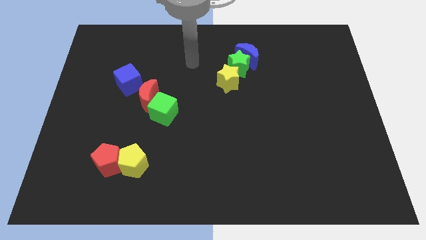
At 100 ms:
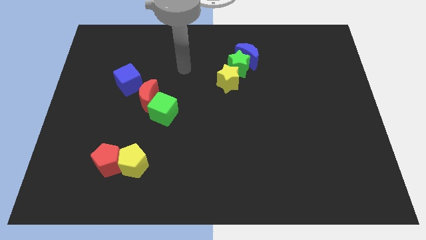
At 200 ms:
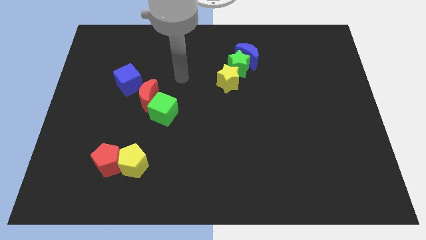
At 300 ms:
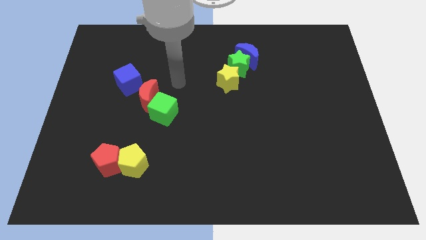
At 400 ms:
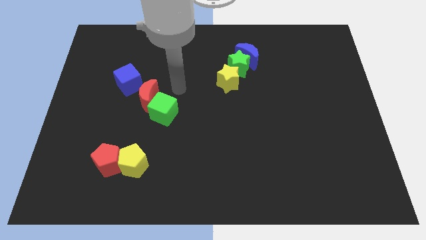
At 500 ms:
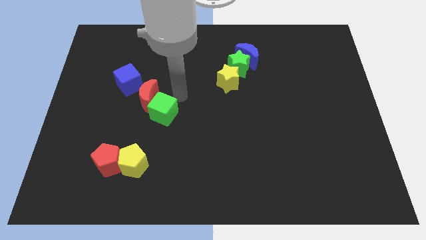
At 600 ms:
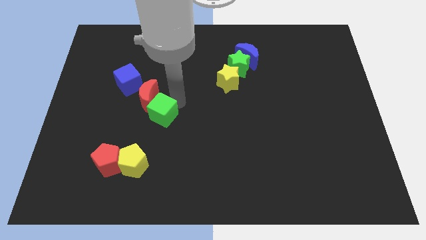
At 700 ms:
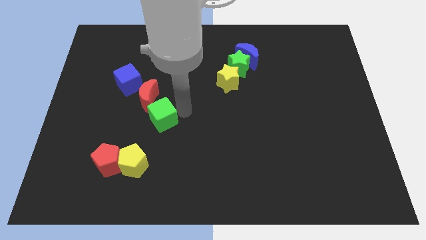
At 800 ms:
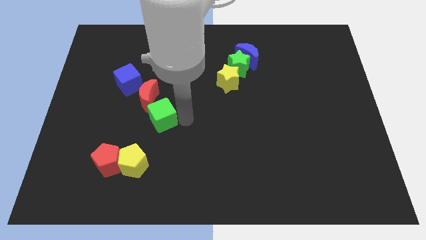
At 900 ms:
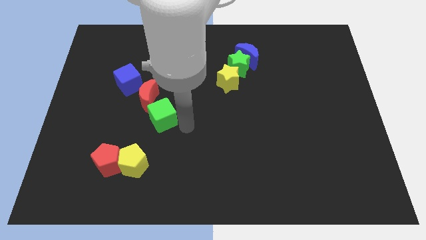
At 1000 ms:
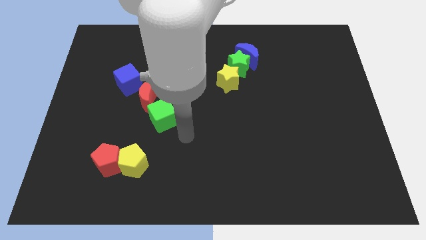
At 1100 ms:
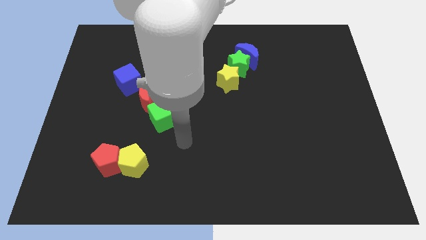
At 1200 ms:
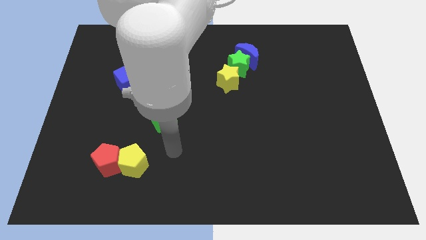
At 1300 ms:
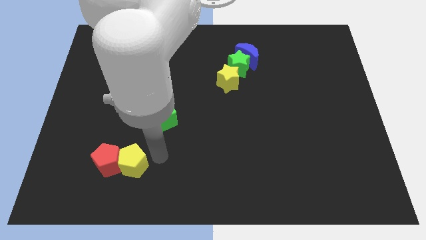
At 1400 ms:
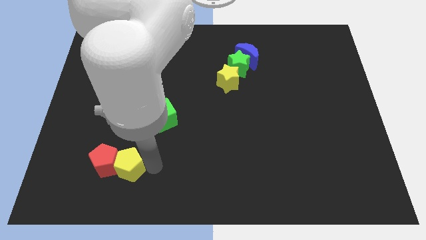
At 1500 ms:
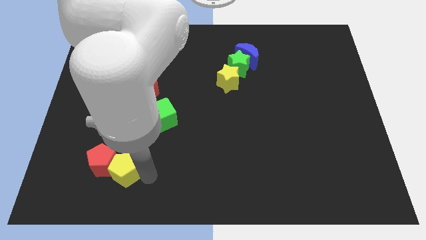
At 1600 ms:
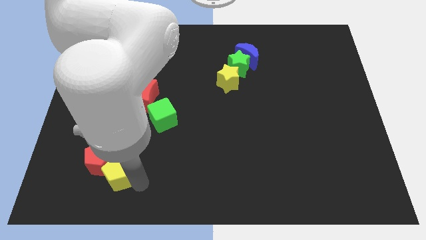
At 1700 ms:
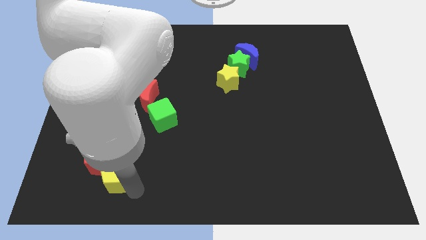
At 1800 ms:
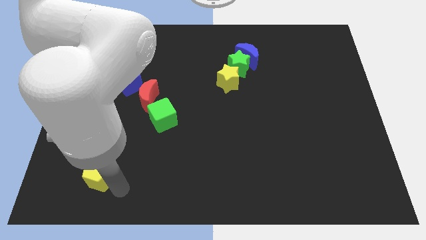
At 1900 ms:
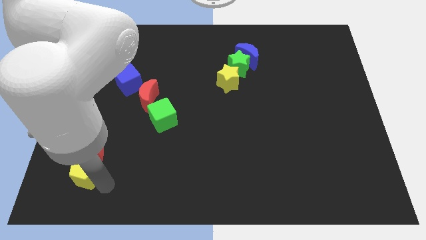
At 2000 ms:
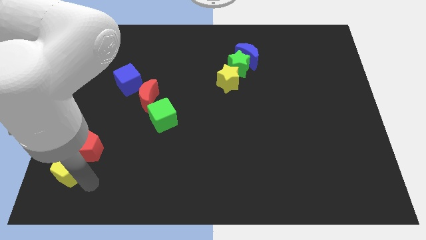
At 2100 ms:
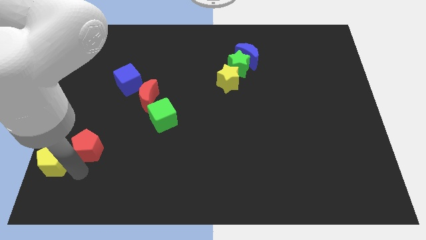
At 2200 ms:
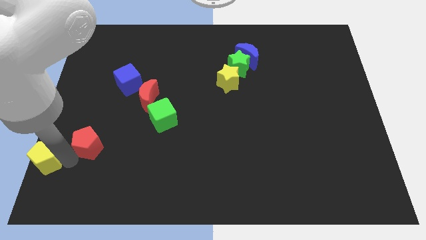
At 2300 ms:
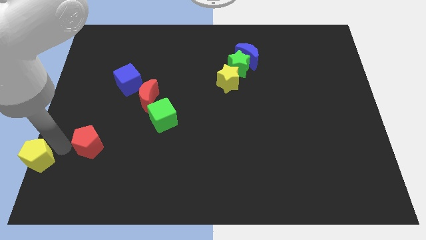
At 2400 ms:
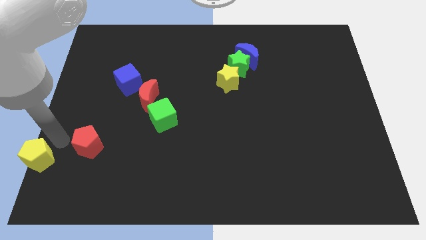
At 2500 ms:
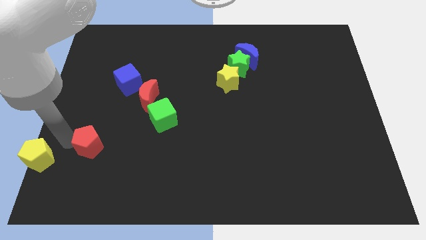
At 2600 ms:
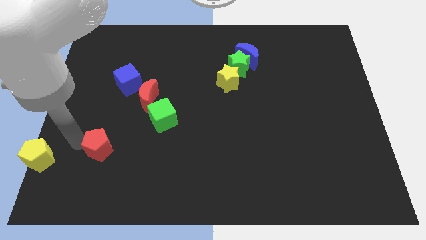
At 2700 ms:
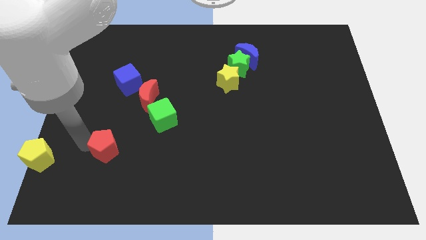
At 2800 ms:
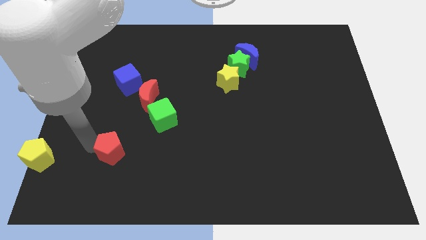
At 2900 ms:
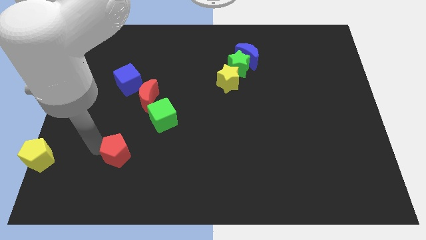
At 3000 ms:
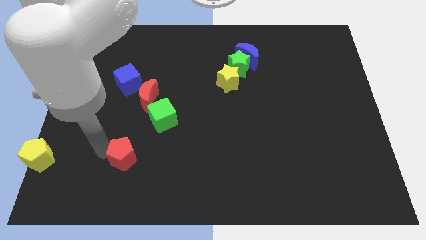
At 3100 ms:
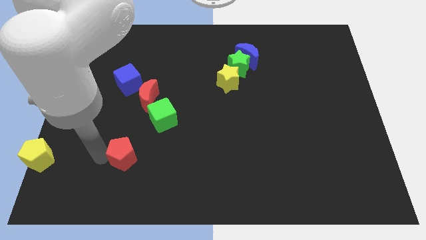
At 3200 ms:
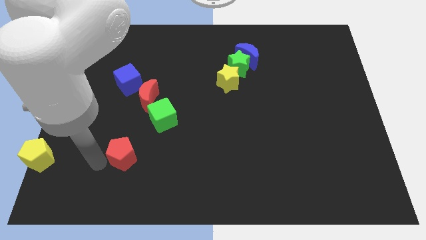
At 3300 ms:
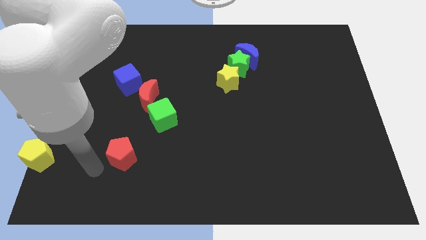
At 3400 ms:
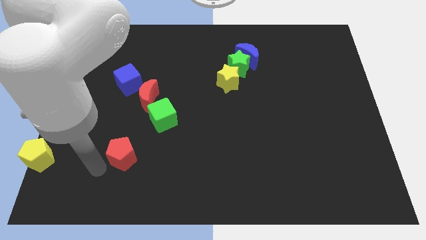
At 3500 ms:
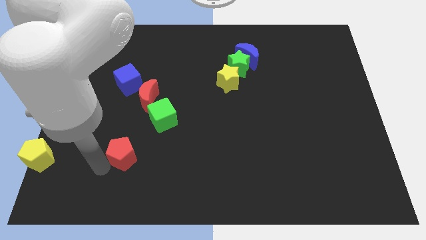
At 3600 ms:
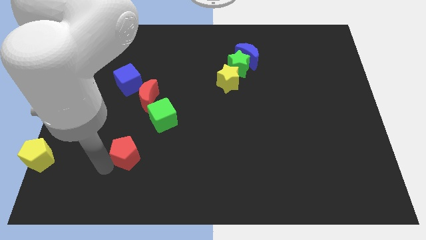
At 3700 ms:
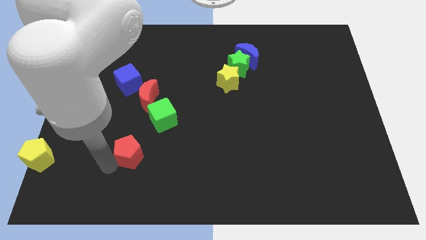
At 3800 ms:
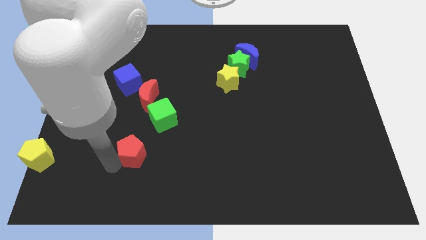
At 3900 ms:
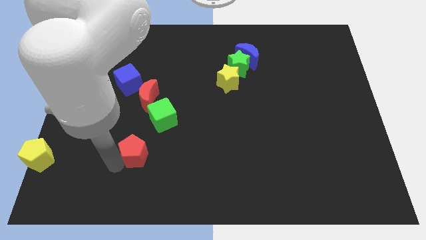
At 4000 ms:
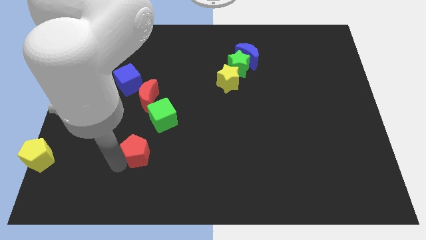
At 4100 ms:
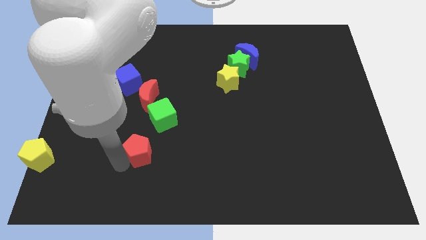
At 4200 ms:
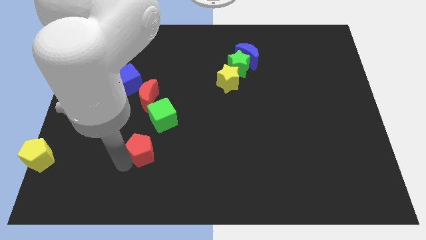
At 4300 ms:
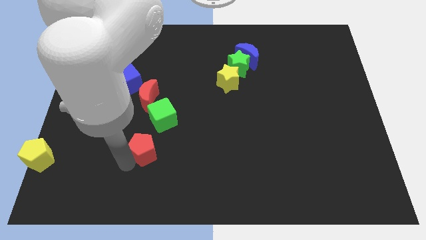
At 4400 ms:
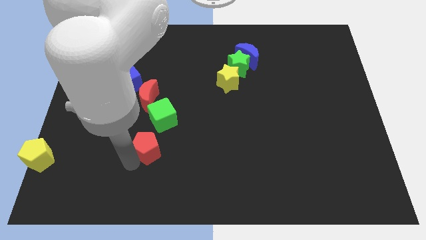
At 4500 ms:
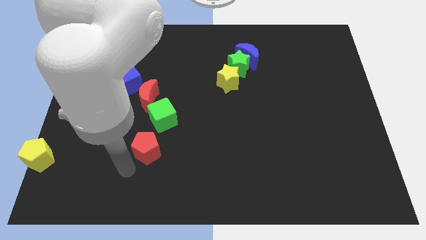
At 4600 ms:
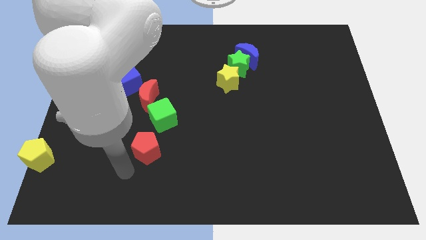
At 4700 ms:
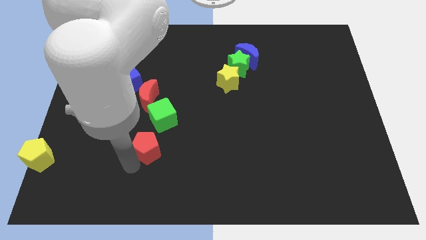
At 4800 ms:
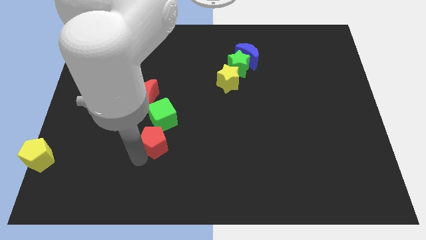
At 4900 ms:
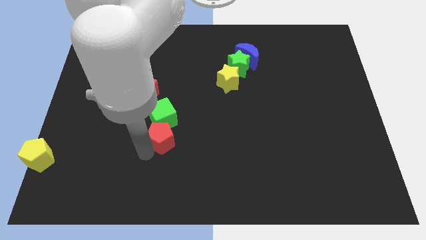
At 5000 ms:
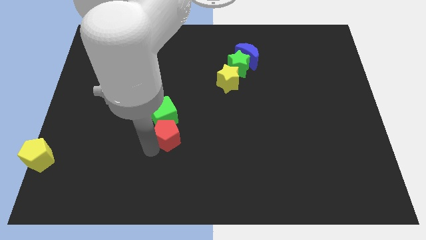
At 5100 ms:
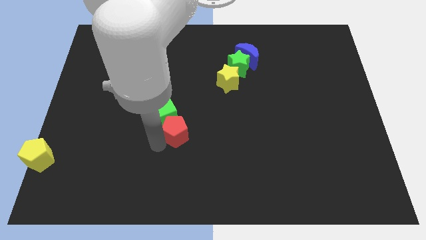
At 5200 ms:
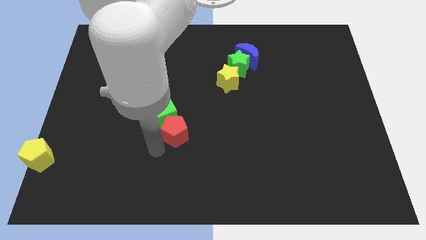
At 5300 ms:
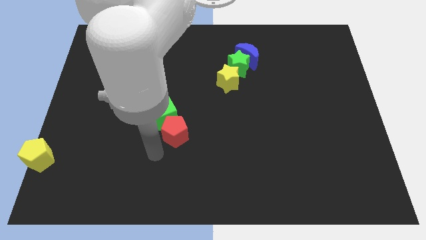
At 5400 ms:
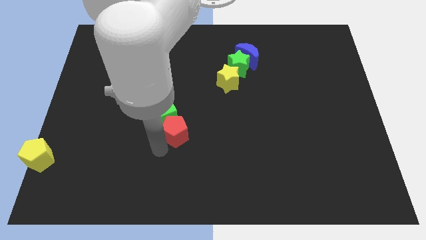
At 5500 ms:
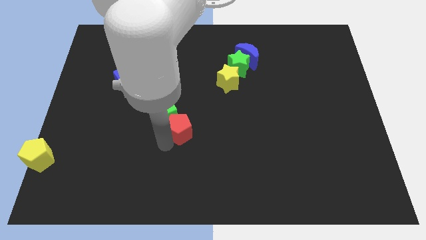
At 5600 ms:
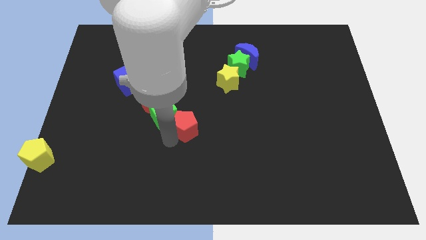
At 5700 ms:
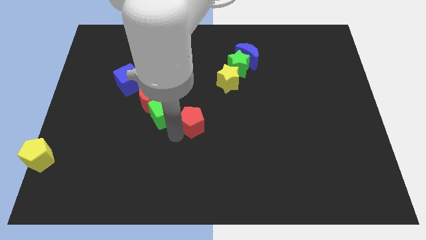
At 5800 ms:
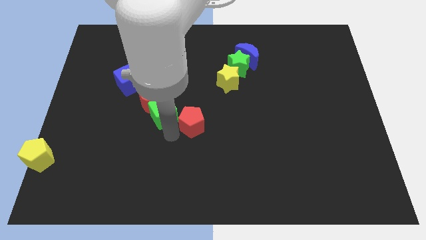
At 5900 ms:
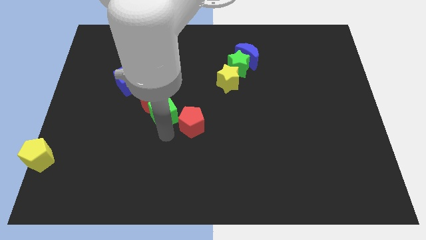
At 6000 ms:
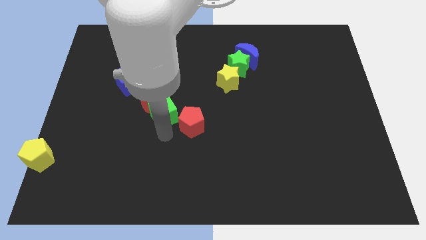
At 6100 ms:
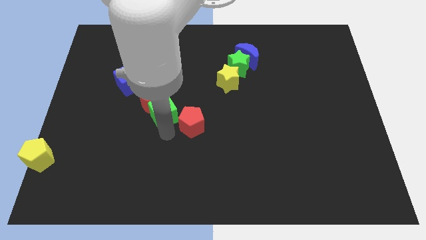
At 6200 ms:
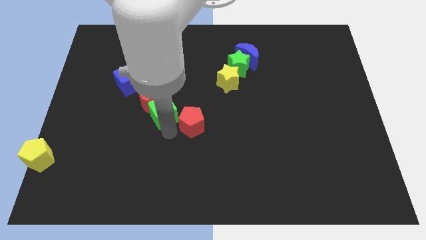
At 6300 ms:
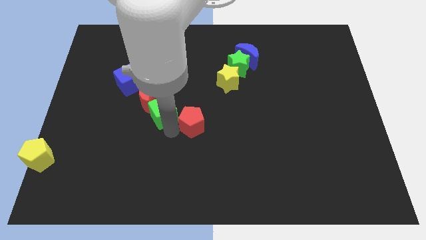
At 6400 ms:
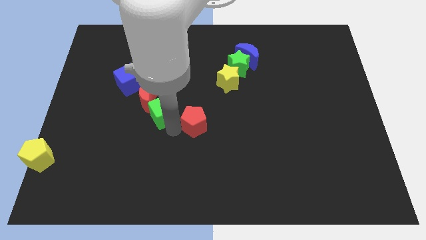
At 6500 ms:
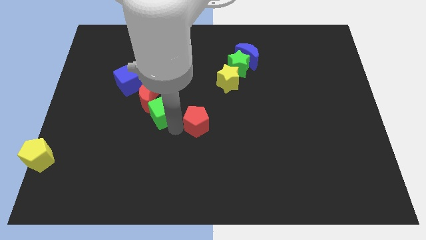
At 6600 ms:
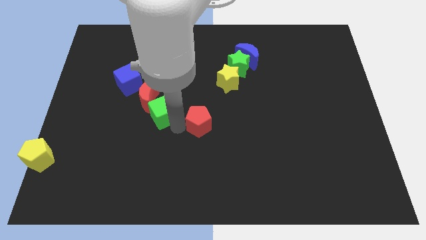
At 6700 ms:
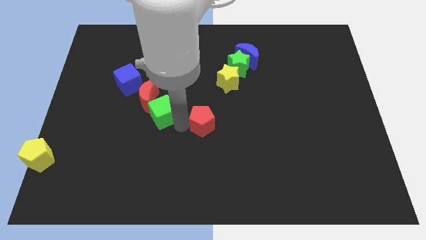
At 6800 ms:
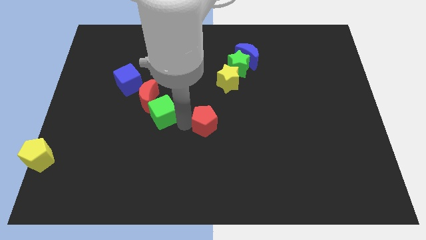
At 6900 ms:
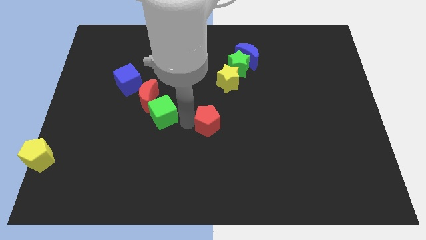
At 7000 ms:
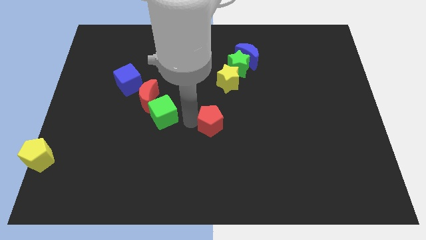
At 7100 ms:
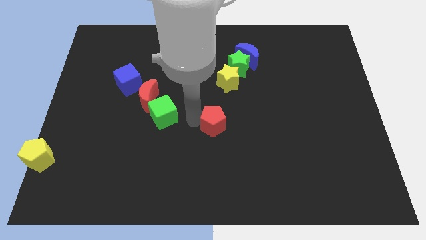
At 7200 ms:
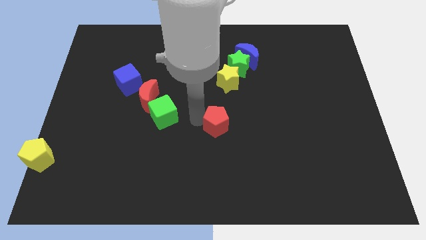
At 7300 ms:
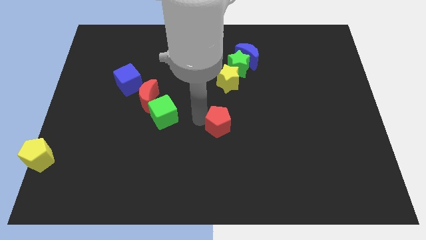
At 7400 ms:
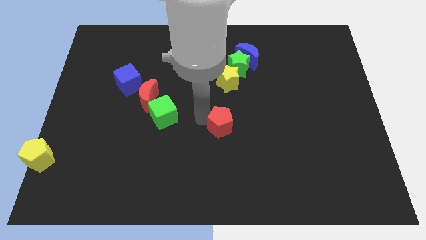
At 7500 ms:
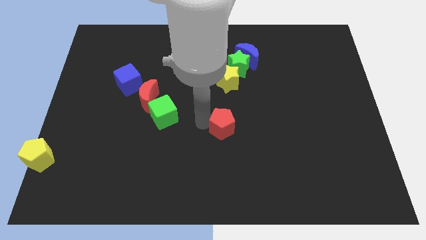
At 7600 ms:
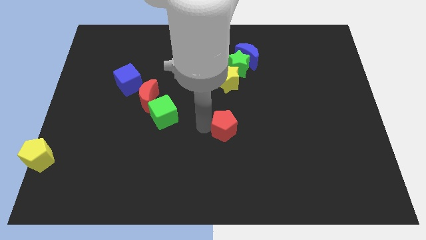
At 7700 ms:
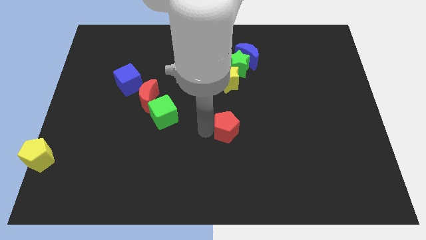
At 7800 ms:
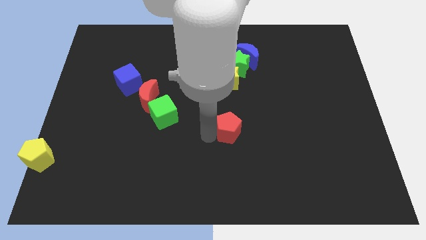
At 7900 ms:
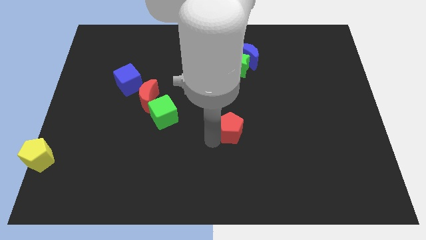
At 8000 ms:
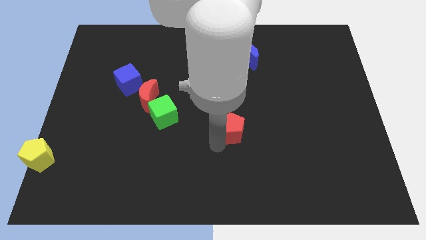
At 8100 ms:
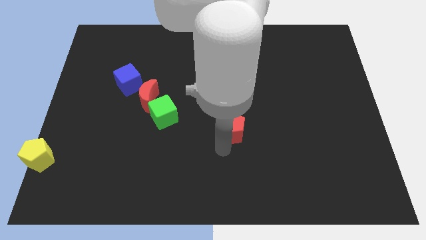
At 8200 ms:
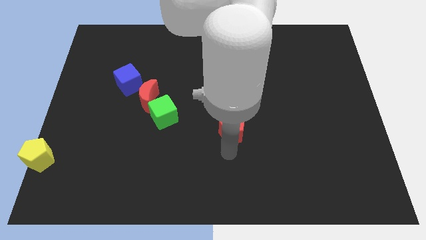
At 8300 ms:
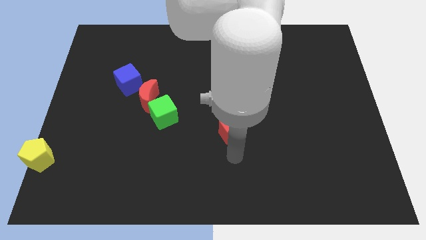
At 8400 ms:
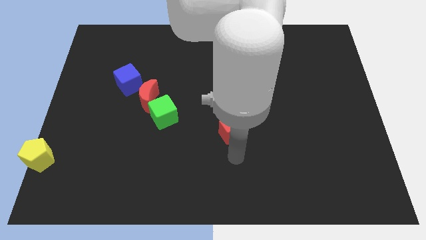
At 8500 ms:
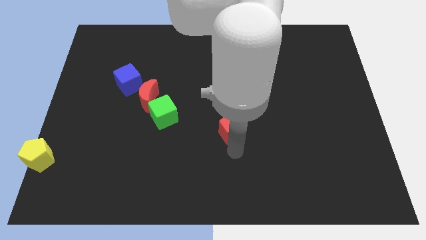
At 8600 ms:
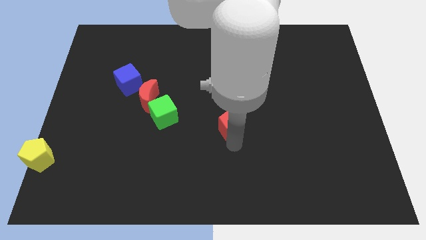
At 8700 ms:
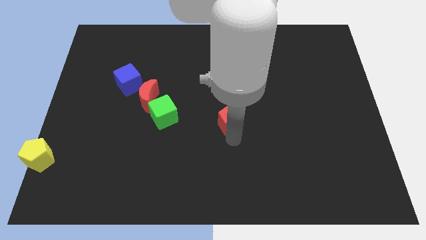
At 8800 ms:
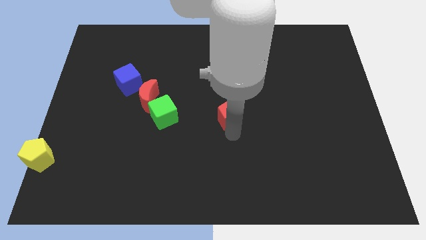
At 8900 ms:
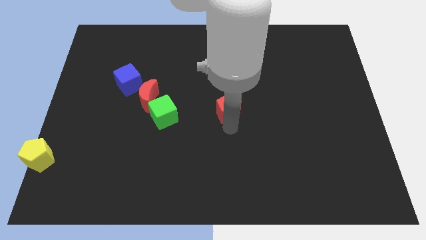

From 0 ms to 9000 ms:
push the red pentagon to the bottom of the green star
